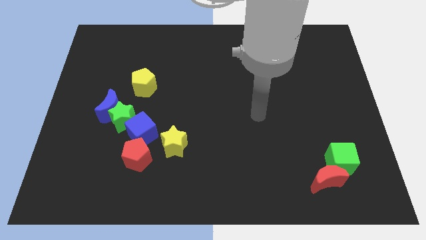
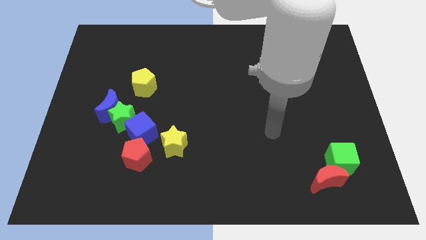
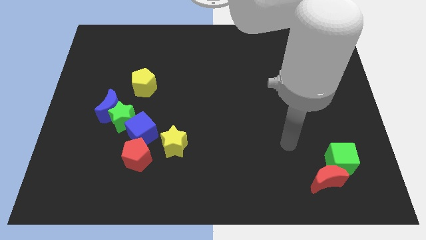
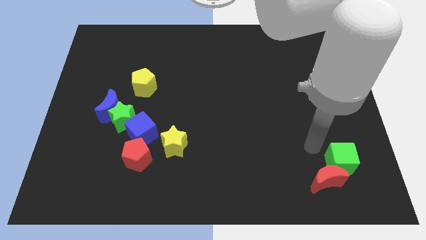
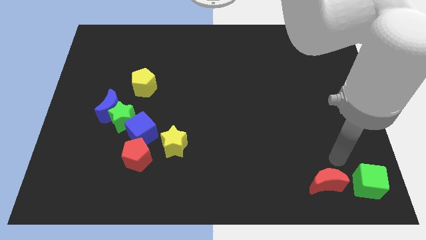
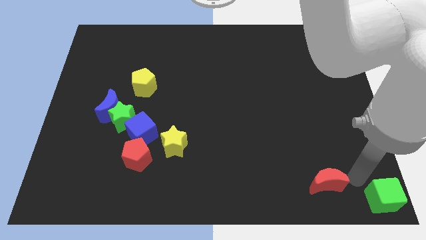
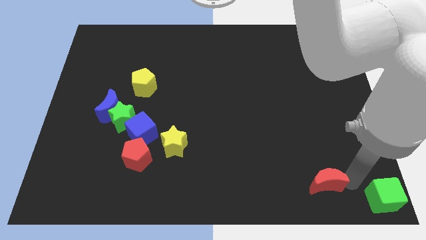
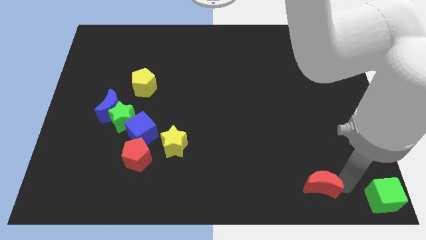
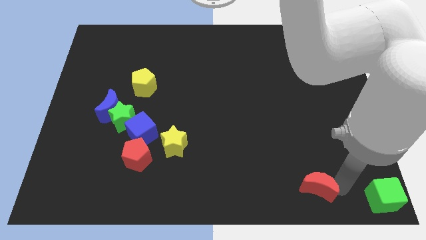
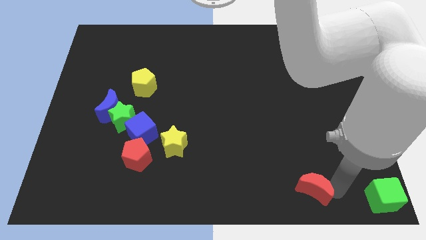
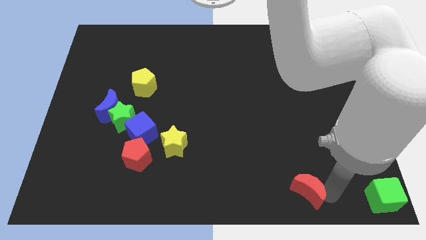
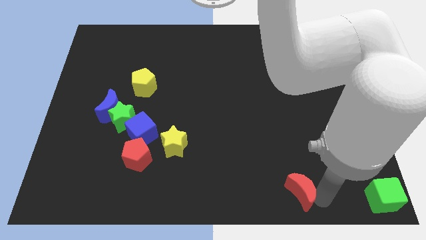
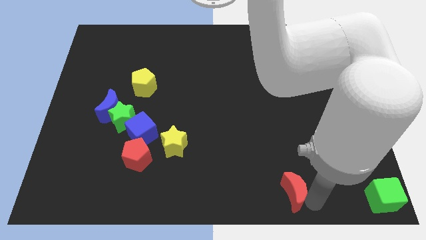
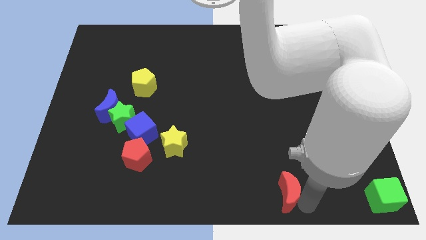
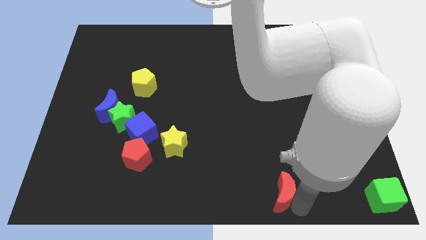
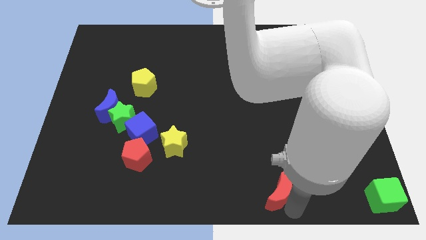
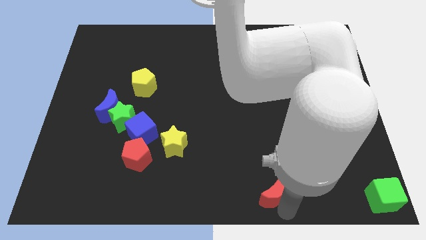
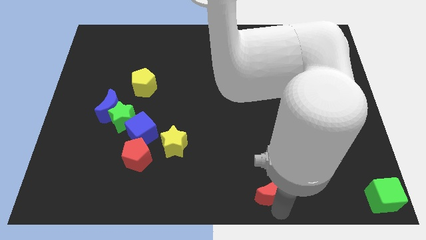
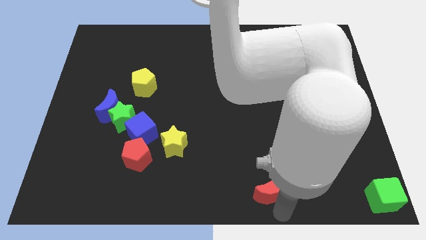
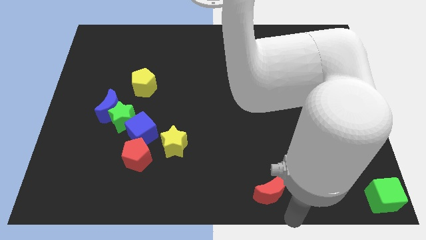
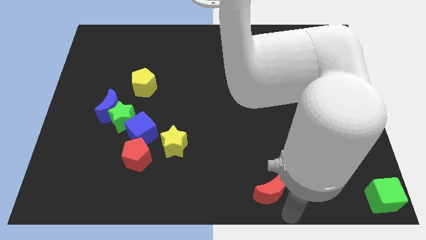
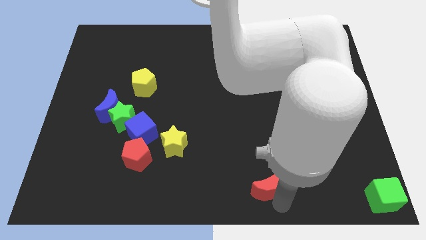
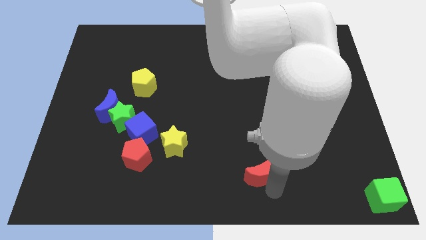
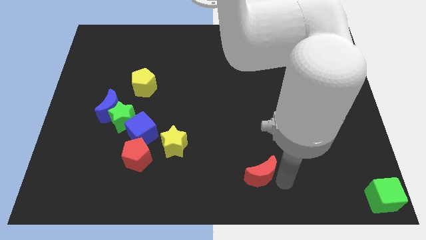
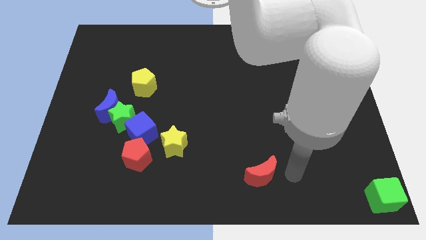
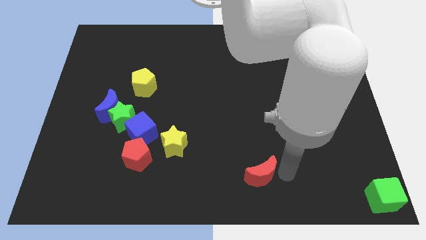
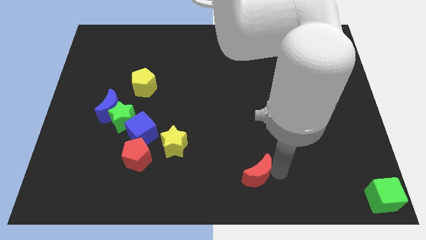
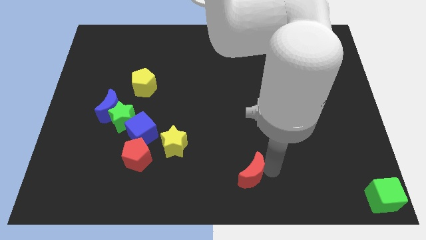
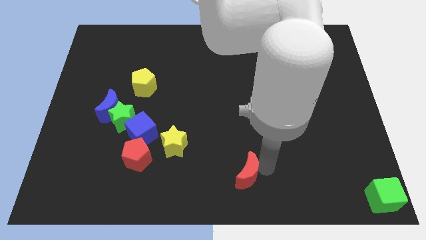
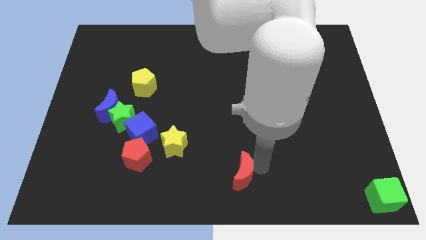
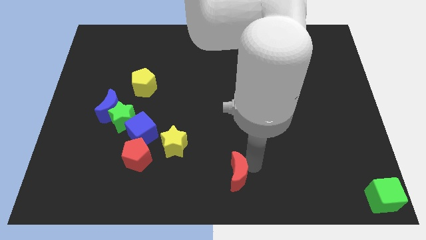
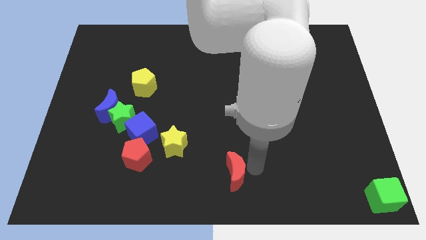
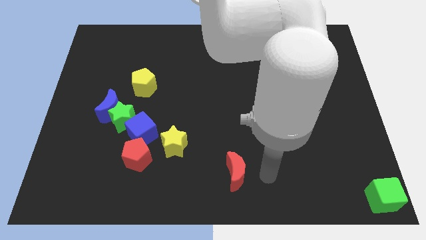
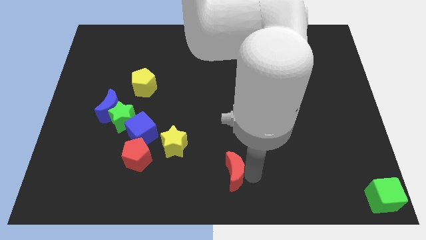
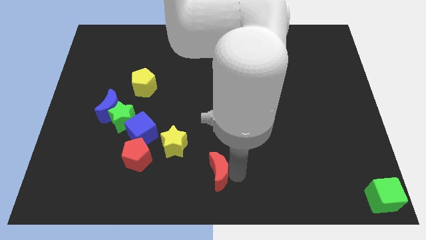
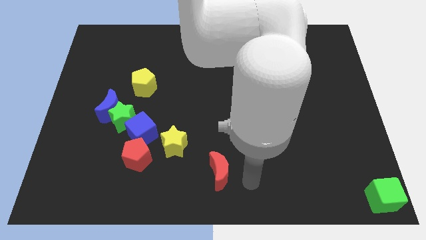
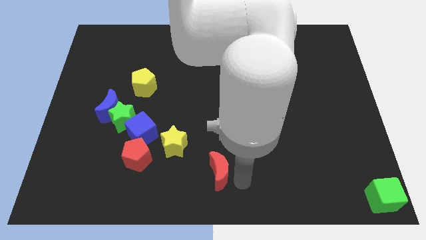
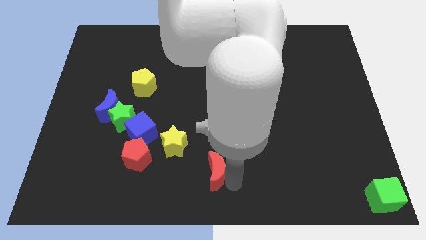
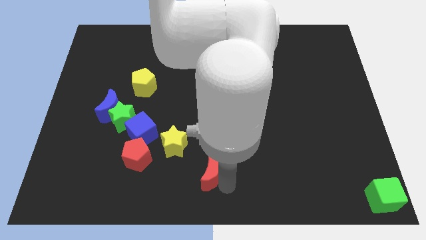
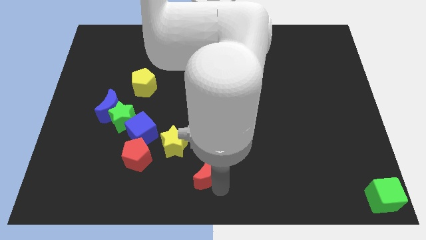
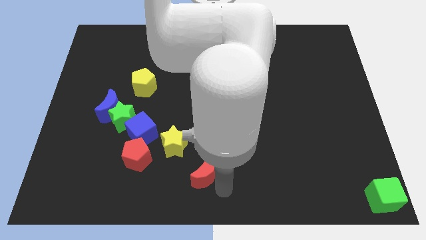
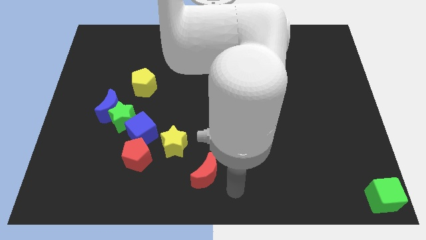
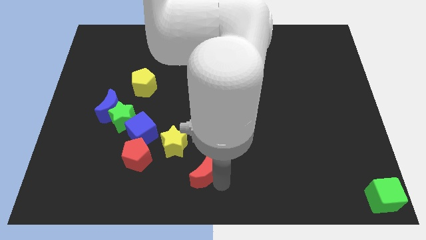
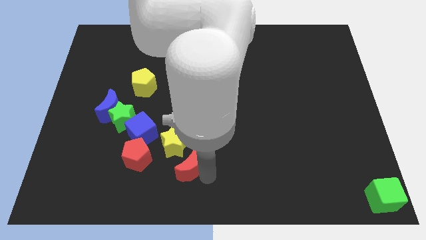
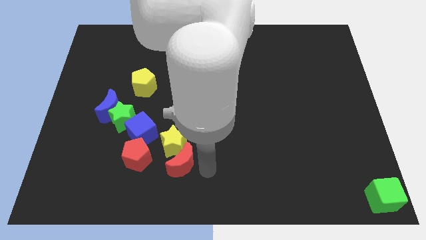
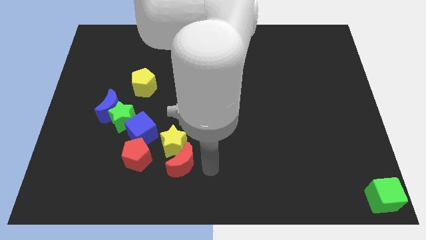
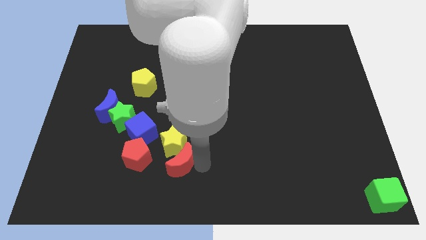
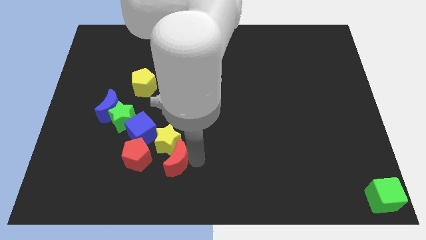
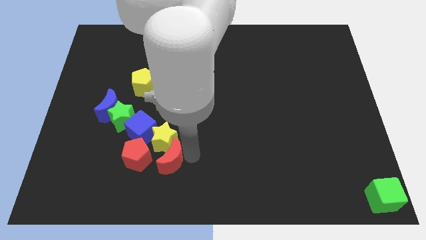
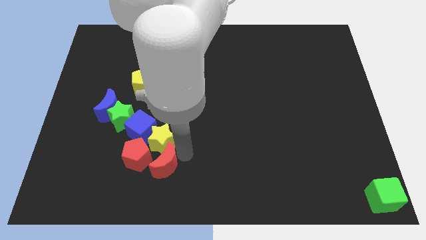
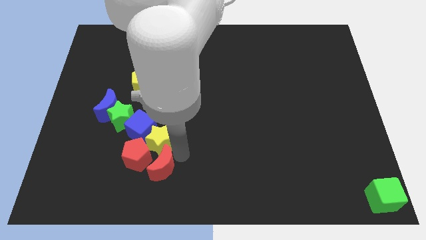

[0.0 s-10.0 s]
push the red moon to the red pentagon

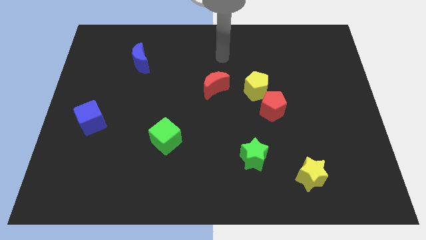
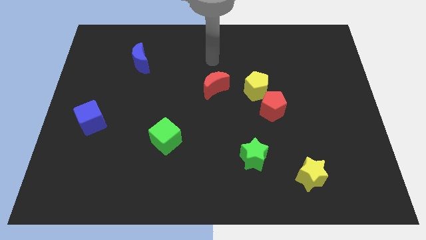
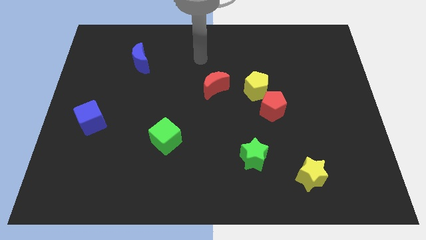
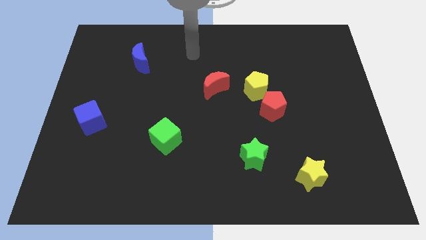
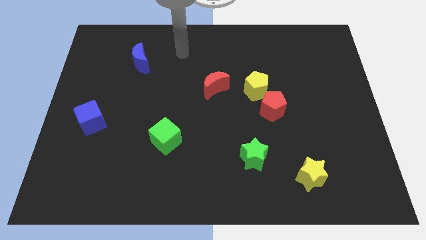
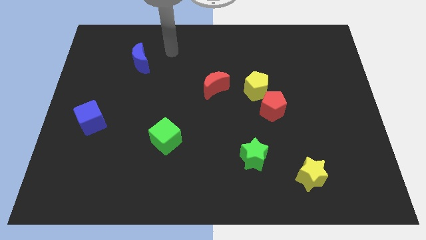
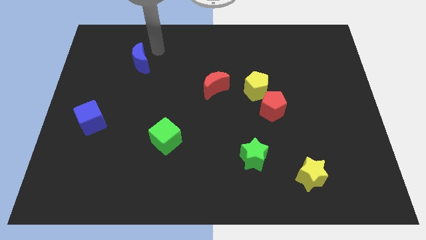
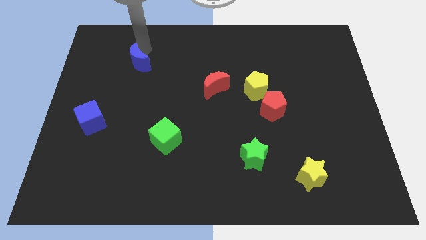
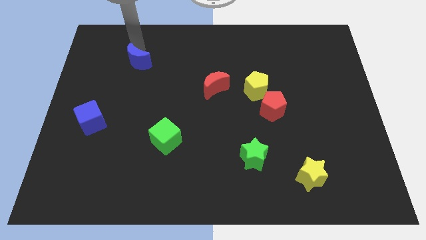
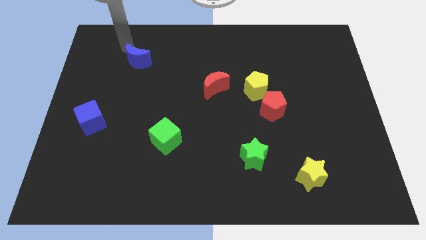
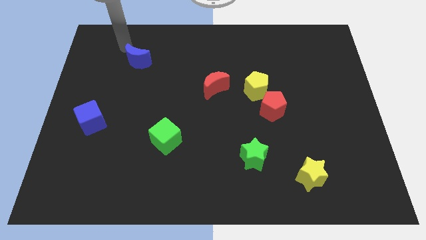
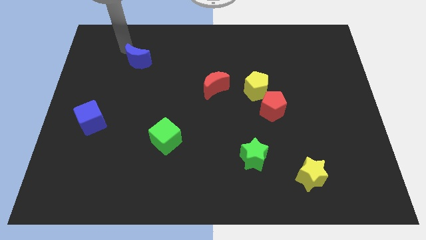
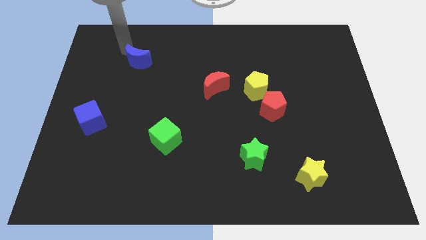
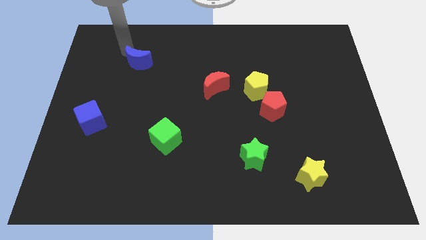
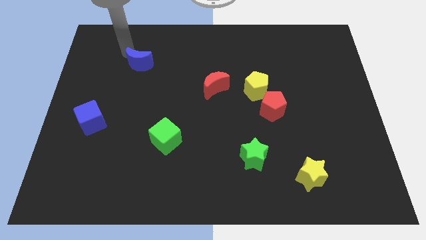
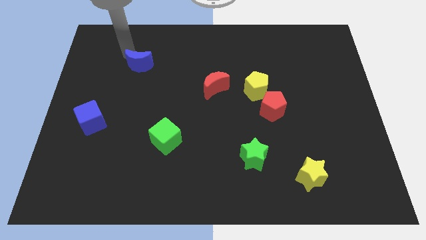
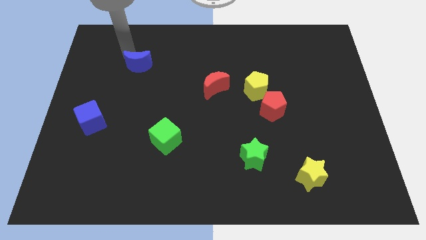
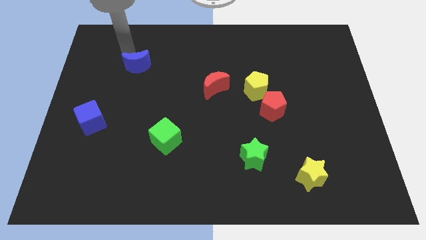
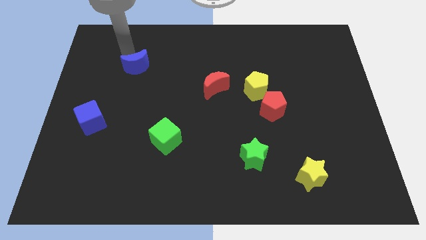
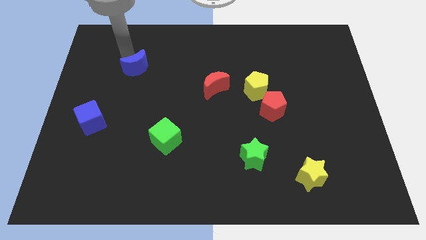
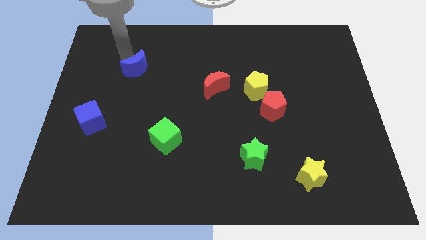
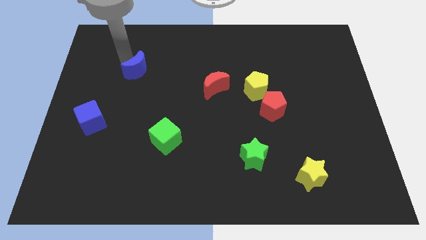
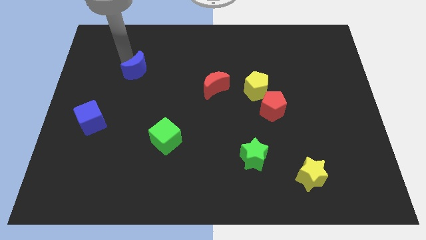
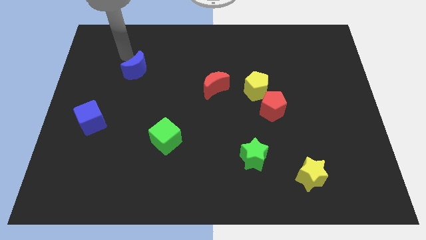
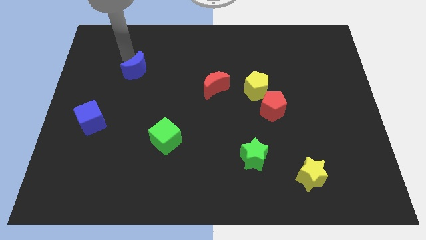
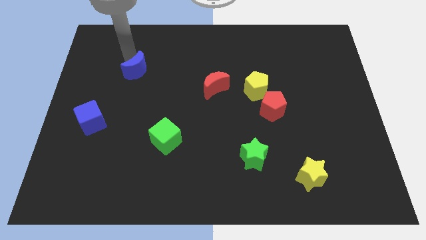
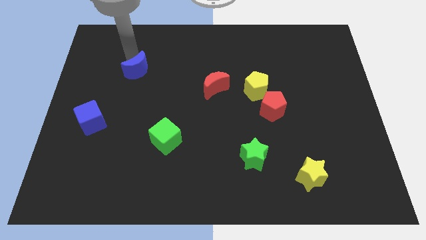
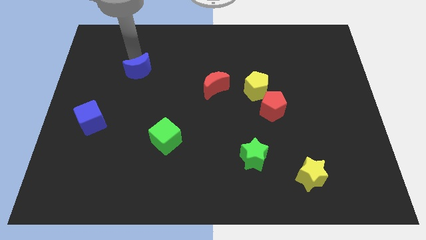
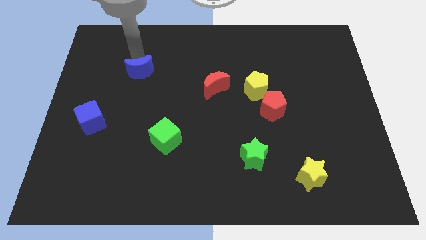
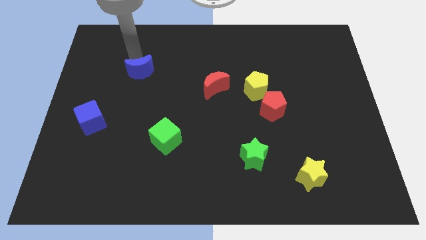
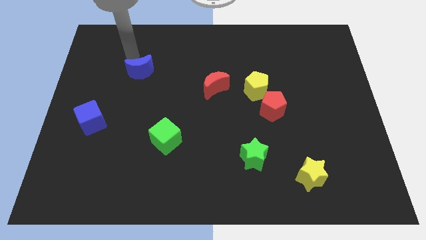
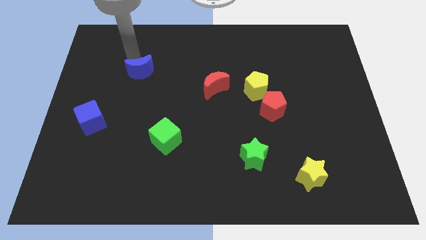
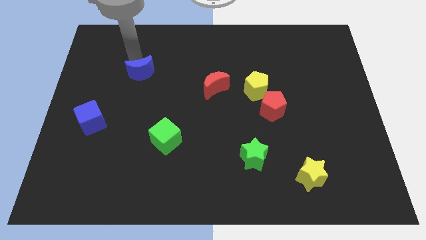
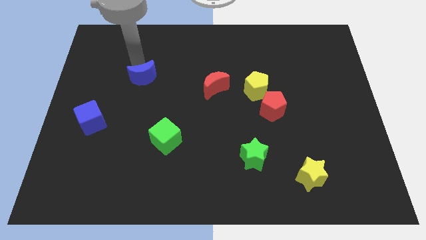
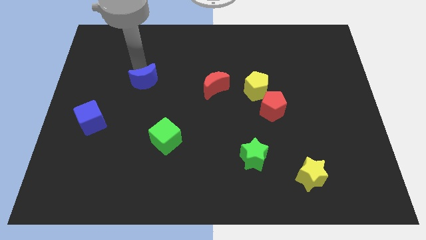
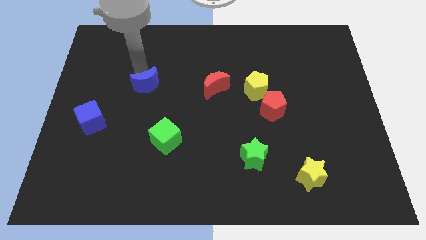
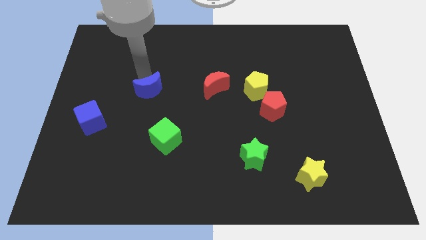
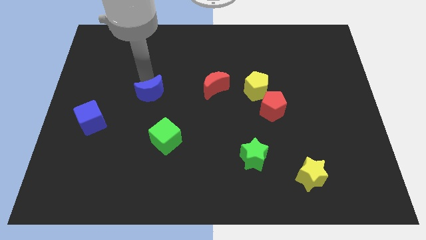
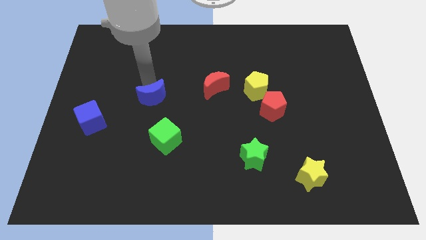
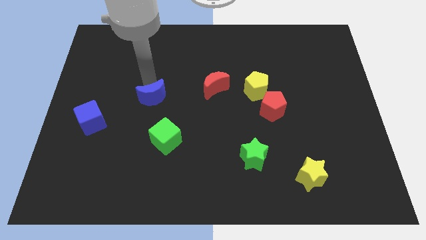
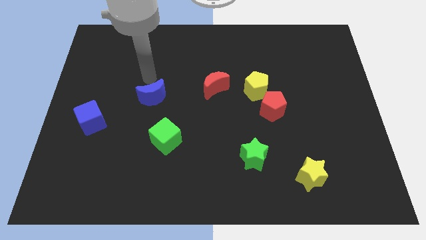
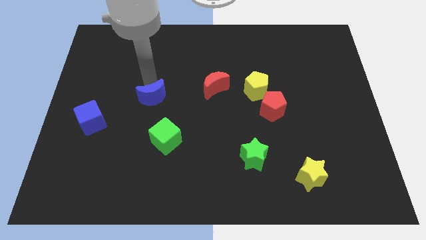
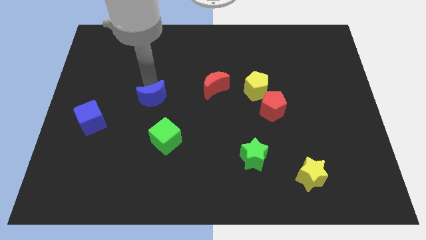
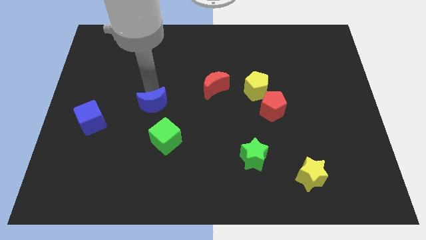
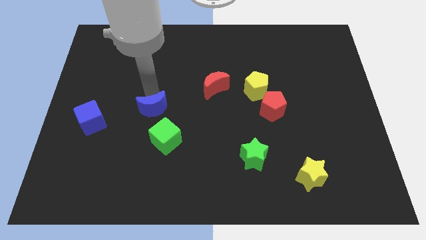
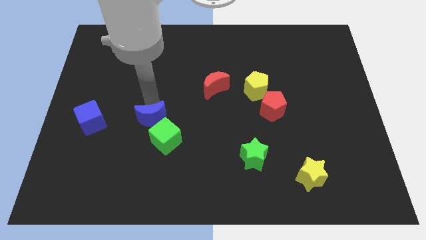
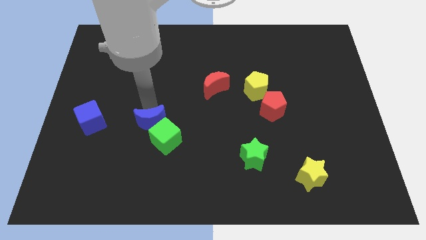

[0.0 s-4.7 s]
slide the blue moon close to the green cube
